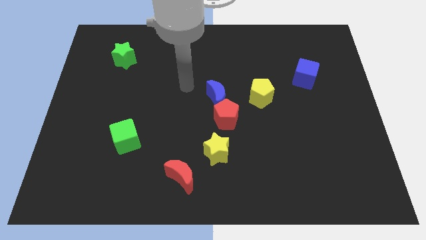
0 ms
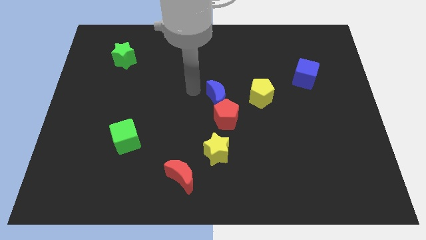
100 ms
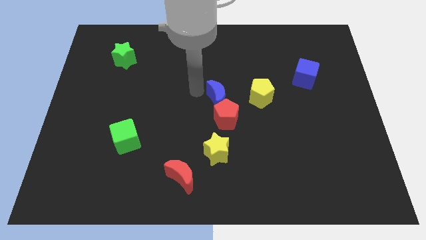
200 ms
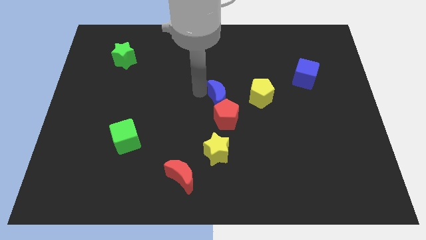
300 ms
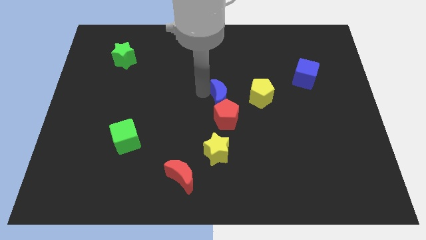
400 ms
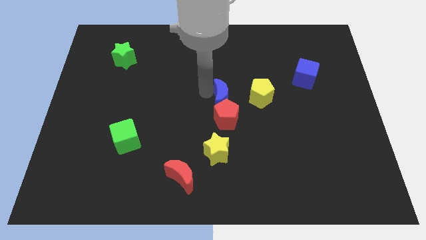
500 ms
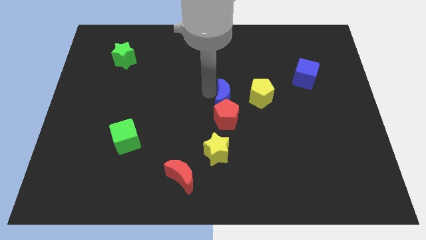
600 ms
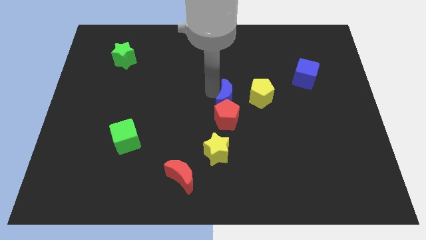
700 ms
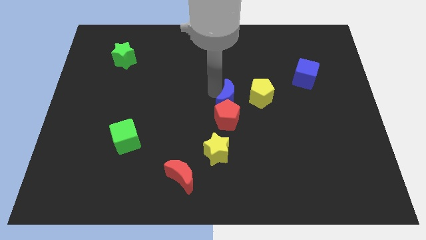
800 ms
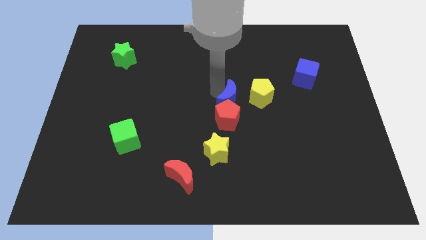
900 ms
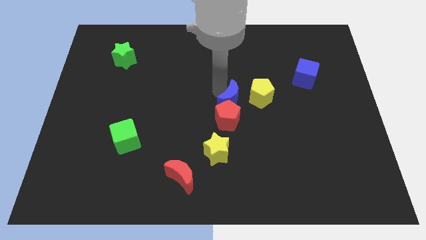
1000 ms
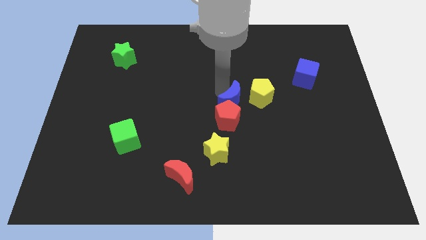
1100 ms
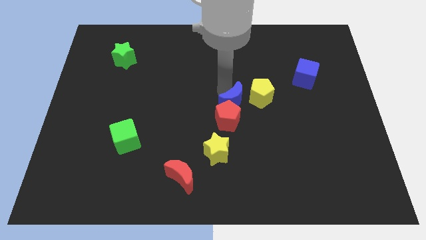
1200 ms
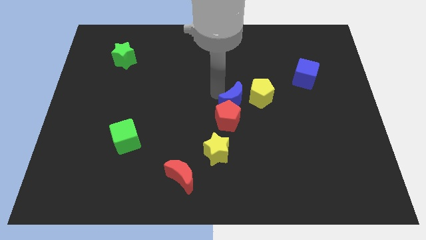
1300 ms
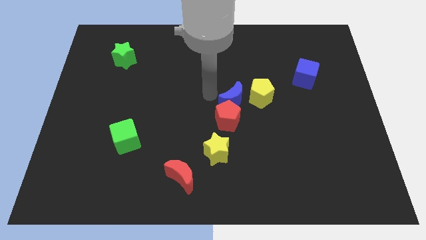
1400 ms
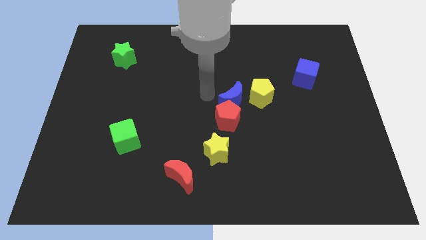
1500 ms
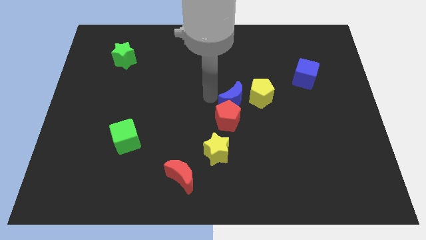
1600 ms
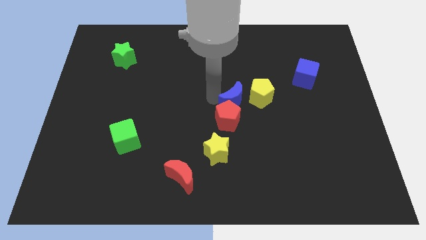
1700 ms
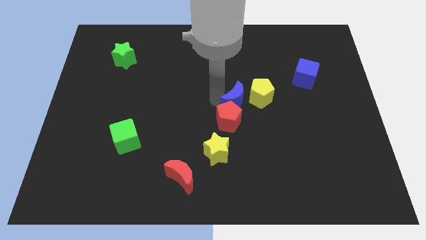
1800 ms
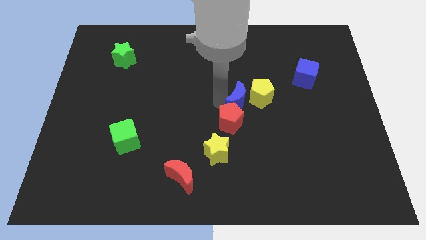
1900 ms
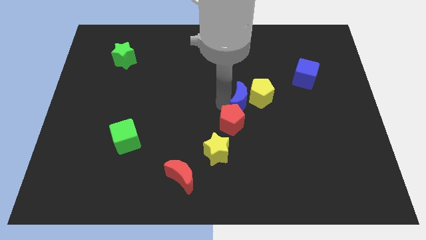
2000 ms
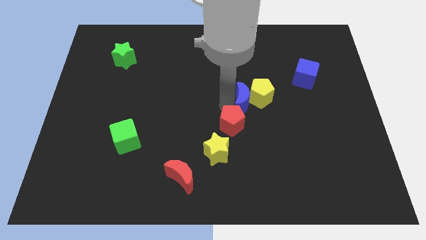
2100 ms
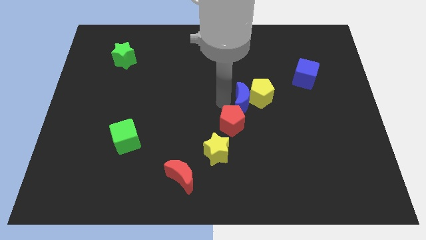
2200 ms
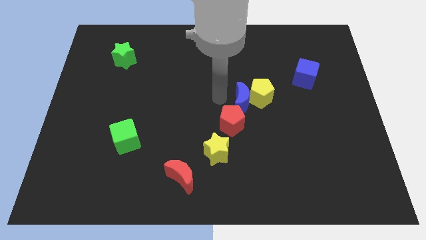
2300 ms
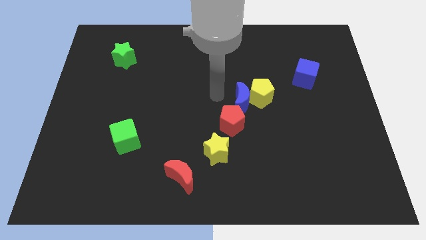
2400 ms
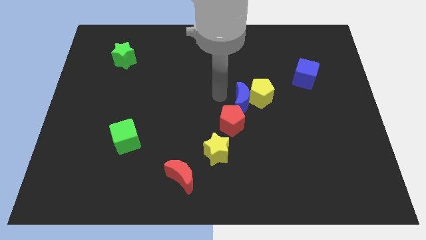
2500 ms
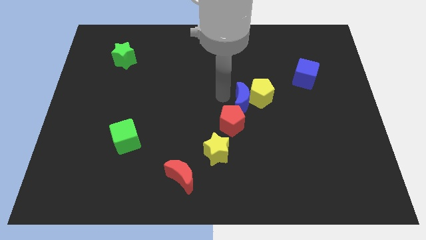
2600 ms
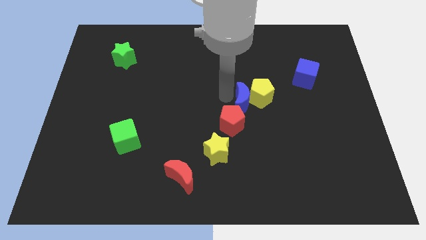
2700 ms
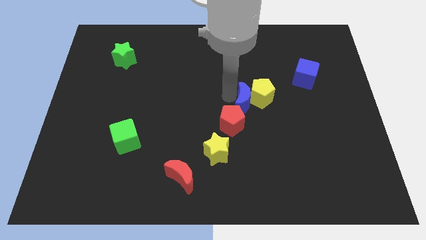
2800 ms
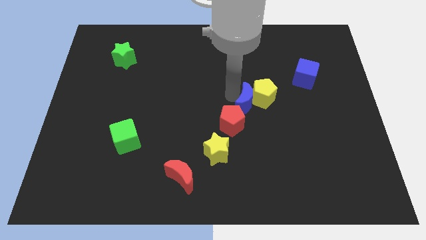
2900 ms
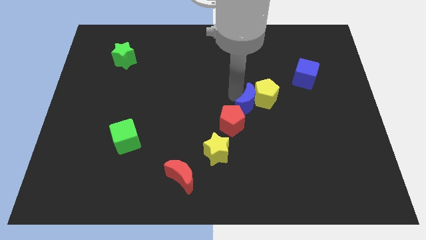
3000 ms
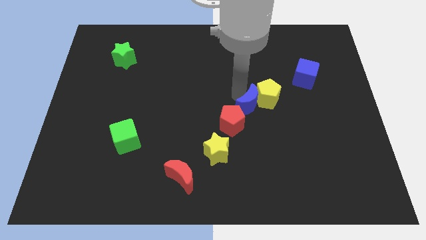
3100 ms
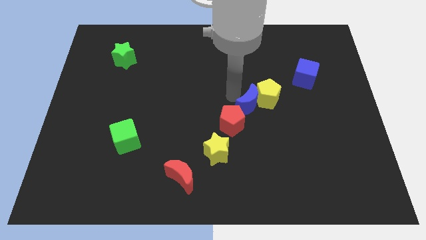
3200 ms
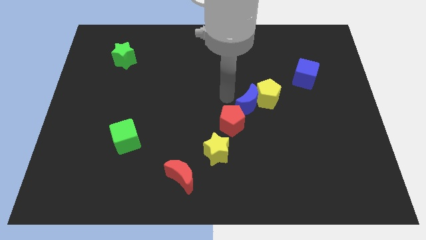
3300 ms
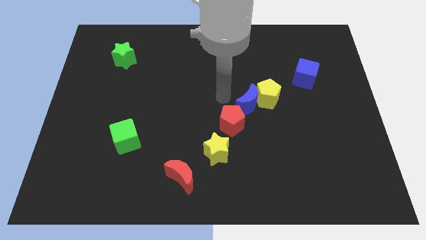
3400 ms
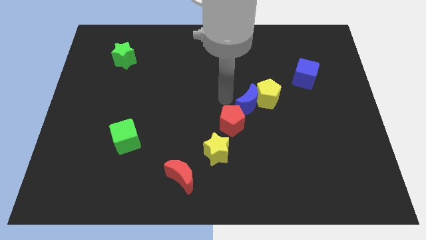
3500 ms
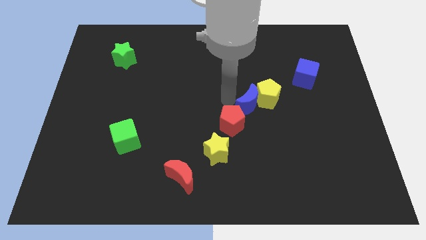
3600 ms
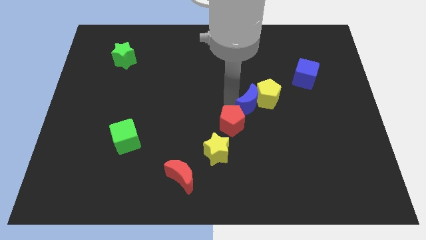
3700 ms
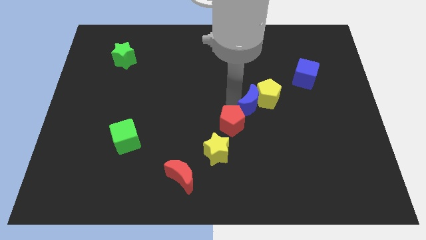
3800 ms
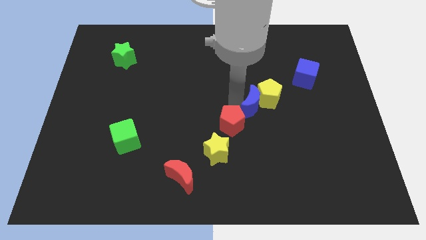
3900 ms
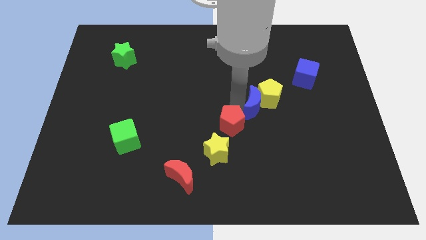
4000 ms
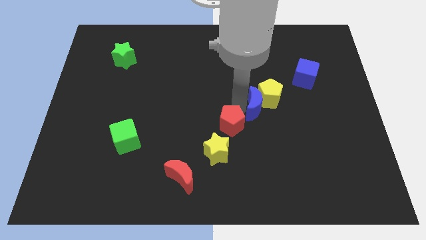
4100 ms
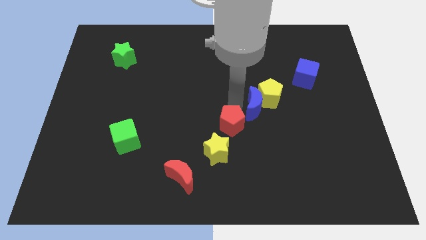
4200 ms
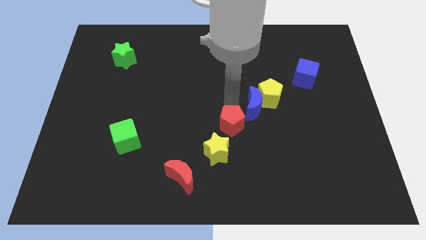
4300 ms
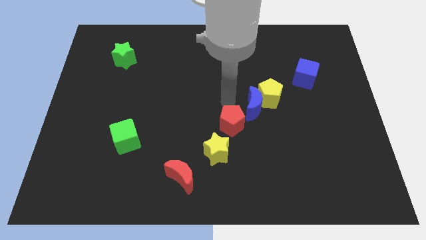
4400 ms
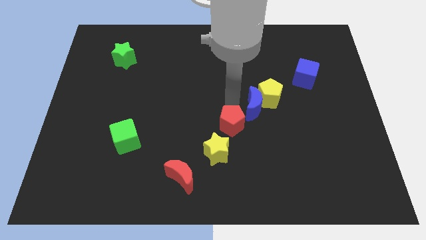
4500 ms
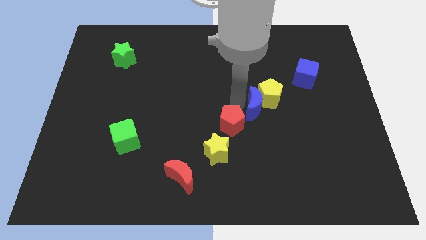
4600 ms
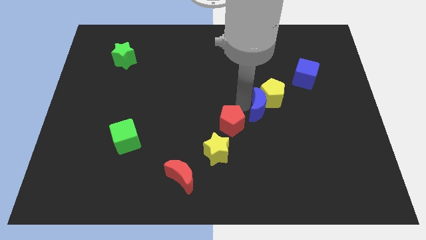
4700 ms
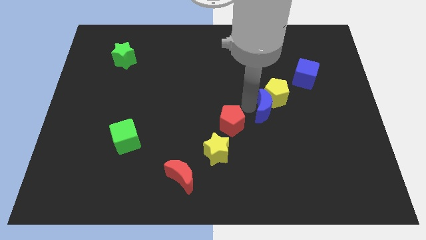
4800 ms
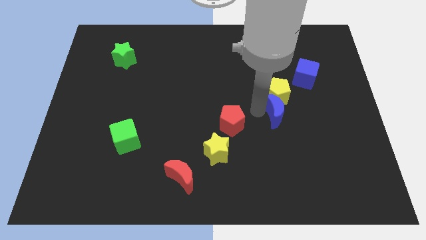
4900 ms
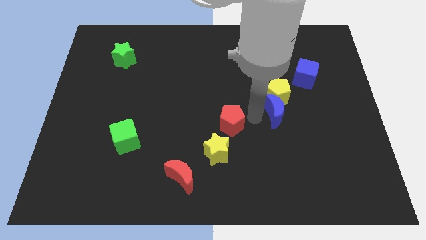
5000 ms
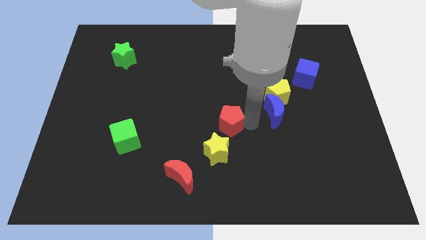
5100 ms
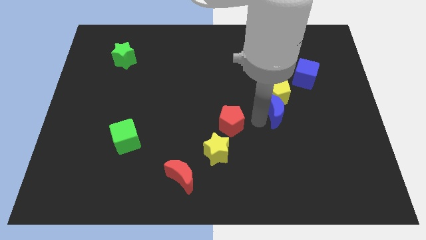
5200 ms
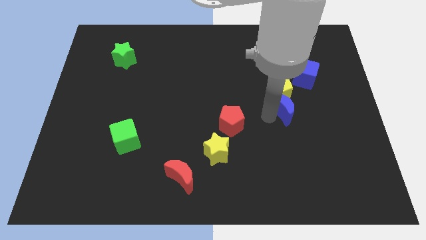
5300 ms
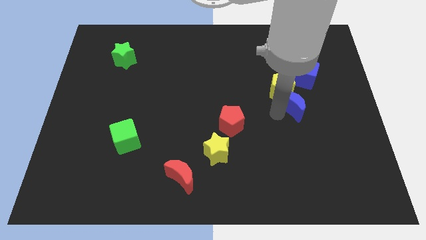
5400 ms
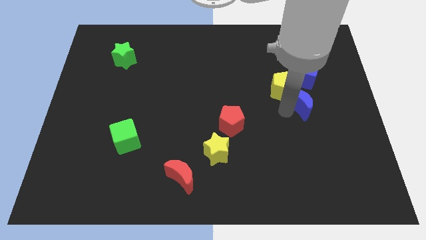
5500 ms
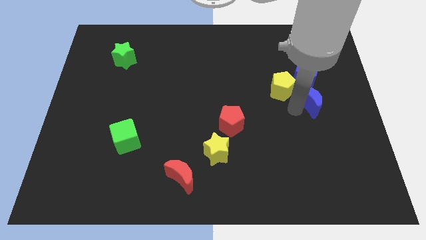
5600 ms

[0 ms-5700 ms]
push the blue moon to the right of the yellow pentagon
